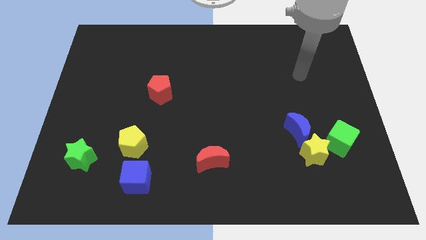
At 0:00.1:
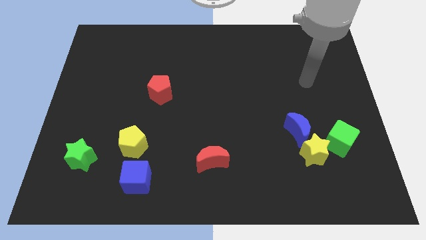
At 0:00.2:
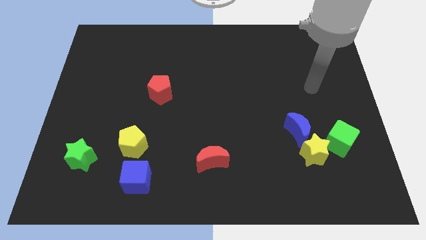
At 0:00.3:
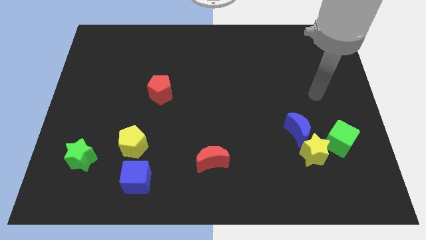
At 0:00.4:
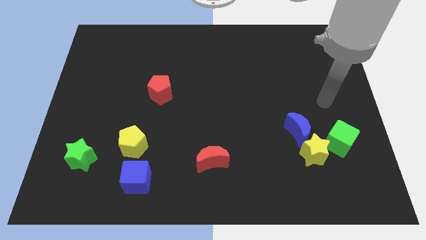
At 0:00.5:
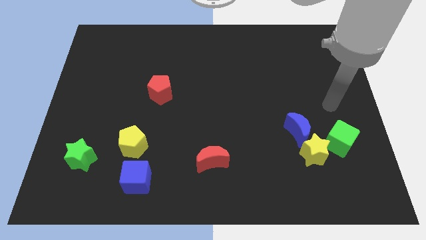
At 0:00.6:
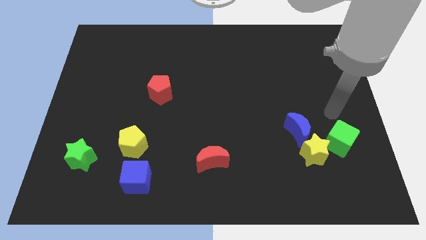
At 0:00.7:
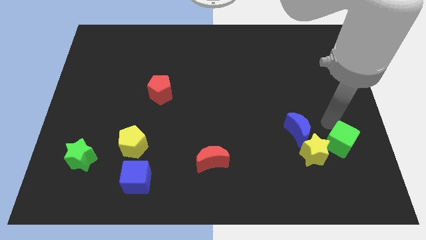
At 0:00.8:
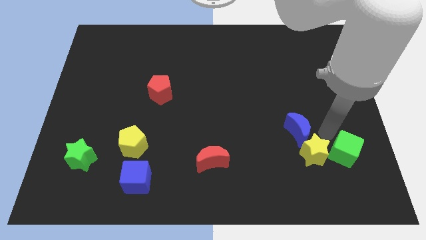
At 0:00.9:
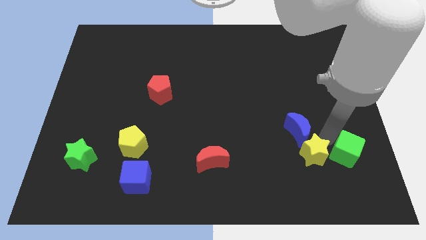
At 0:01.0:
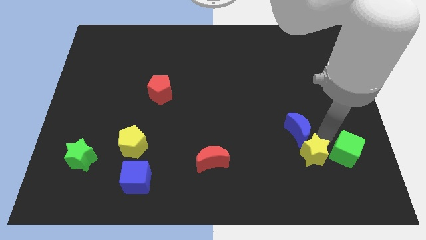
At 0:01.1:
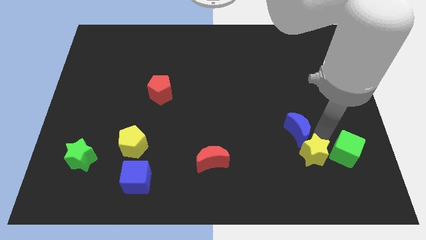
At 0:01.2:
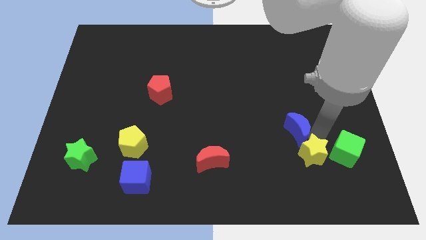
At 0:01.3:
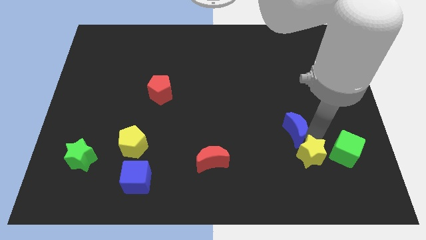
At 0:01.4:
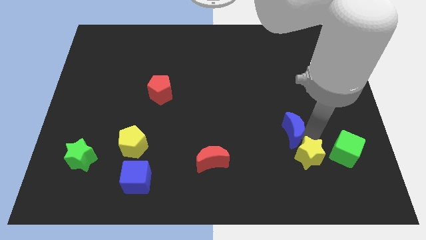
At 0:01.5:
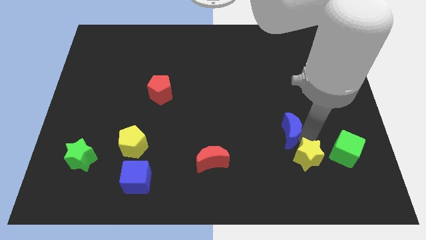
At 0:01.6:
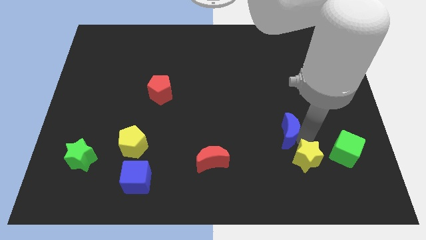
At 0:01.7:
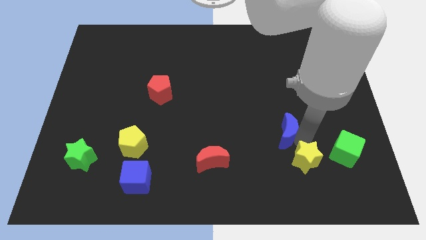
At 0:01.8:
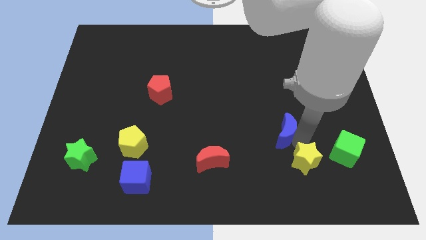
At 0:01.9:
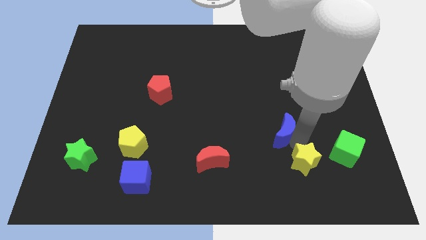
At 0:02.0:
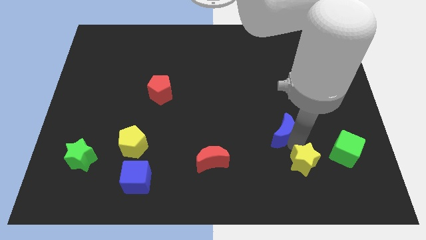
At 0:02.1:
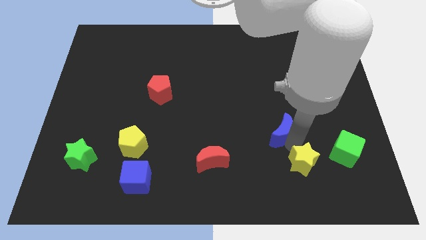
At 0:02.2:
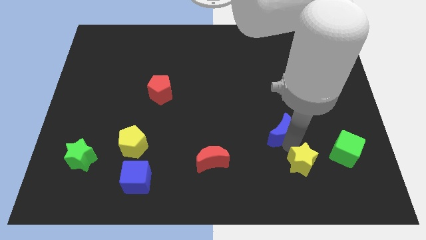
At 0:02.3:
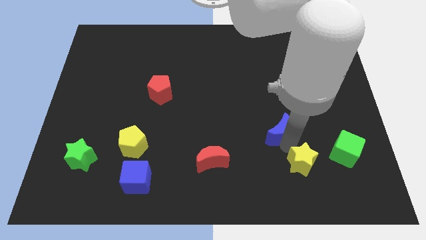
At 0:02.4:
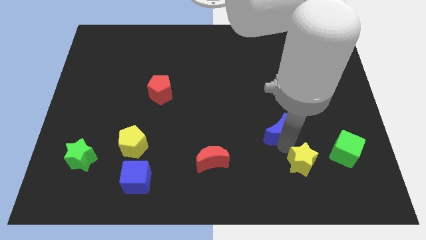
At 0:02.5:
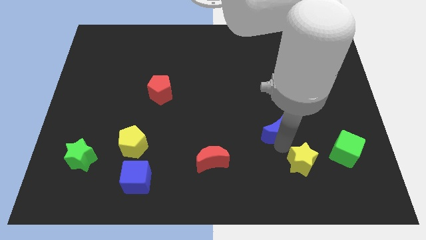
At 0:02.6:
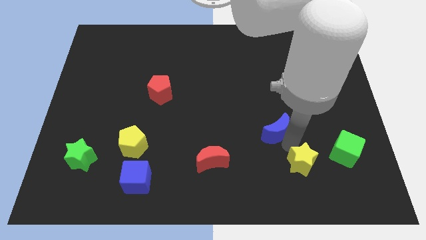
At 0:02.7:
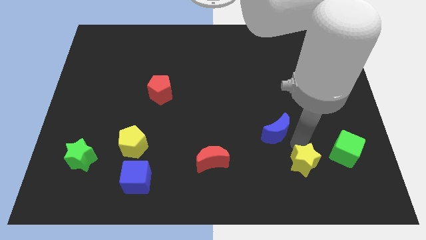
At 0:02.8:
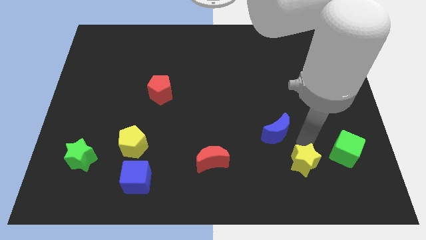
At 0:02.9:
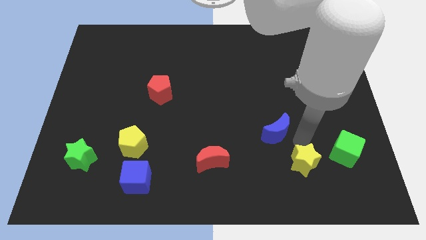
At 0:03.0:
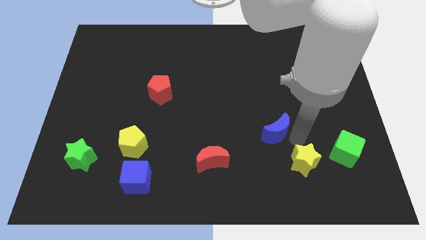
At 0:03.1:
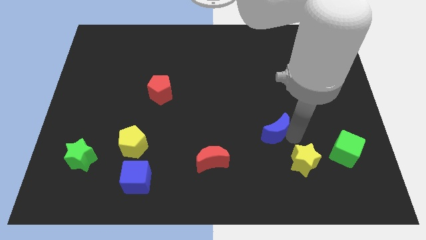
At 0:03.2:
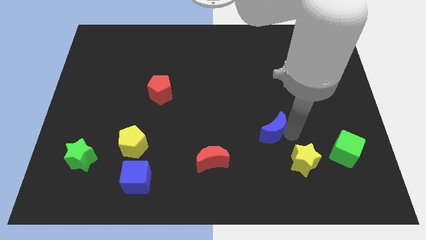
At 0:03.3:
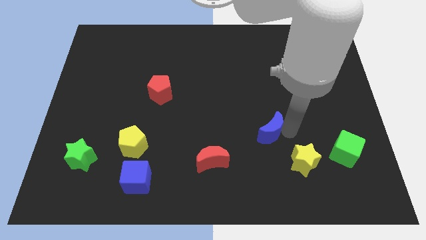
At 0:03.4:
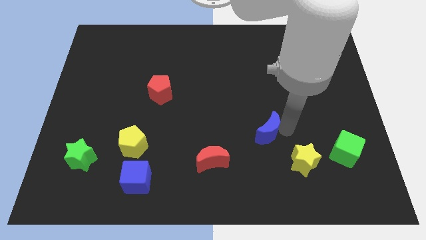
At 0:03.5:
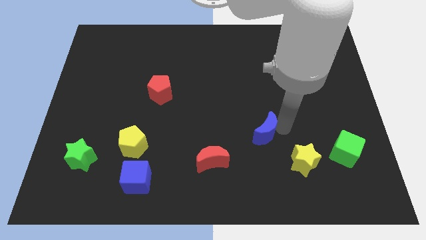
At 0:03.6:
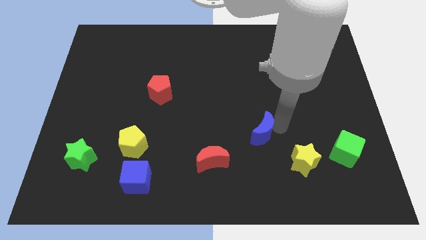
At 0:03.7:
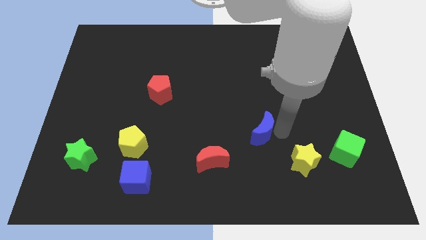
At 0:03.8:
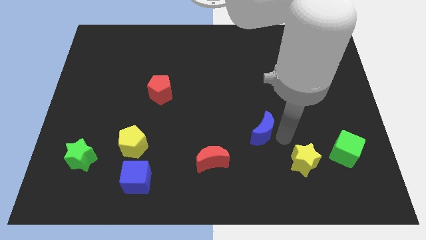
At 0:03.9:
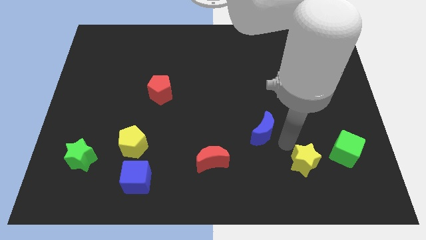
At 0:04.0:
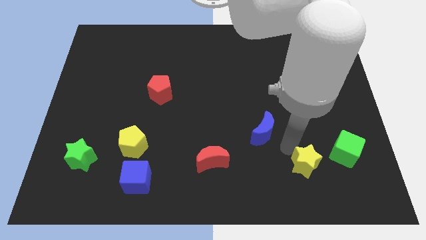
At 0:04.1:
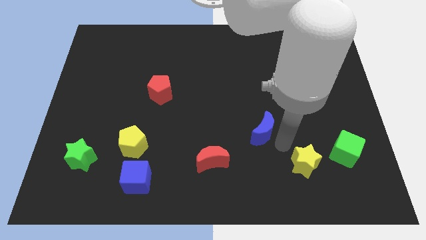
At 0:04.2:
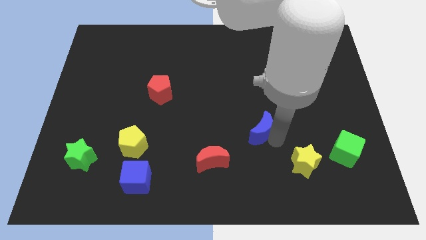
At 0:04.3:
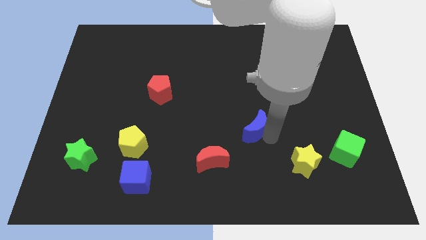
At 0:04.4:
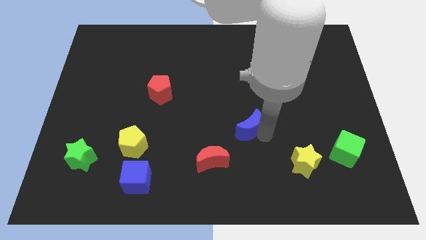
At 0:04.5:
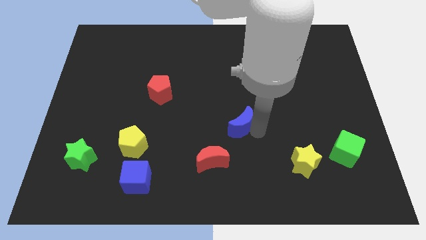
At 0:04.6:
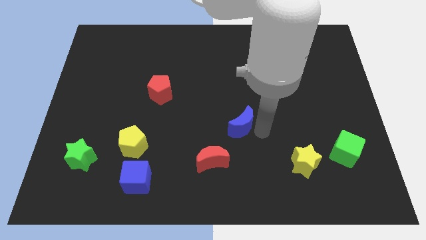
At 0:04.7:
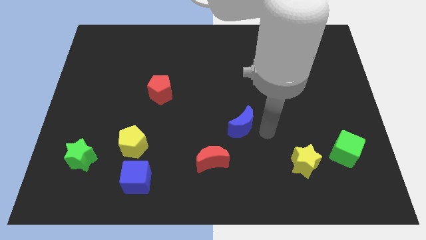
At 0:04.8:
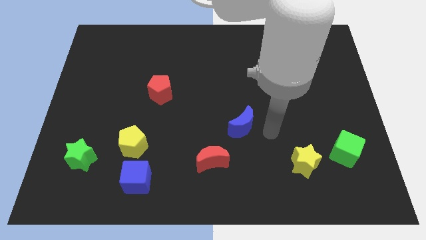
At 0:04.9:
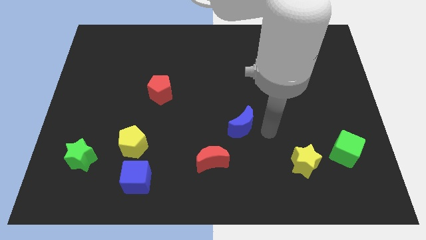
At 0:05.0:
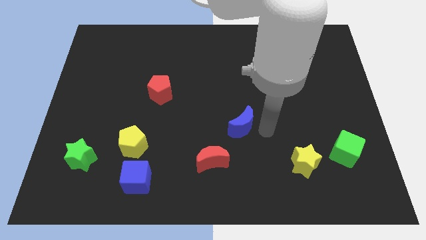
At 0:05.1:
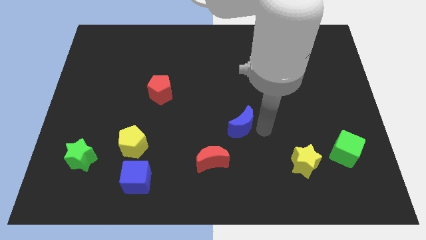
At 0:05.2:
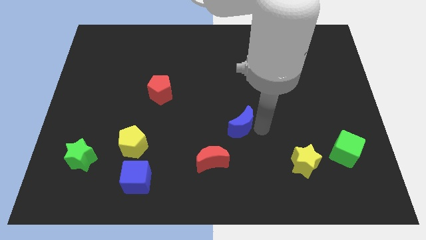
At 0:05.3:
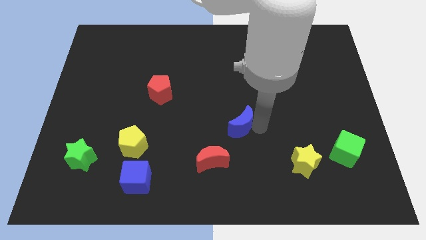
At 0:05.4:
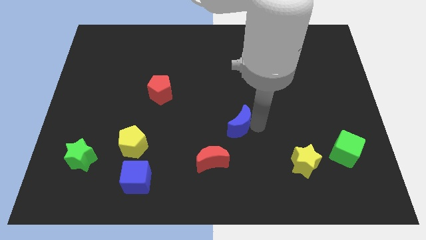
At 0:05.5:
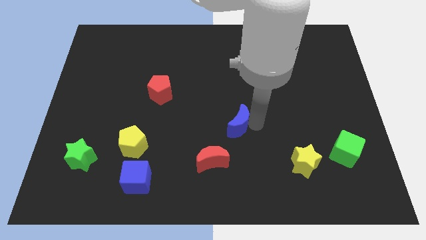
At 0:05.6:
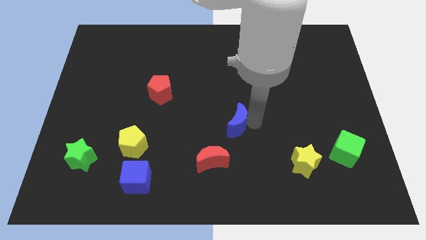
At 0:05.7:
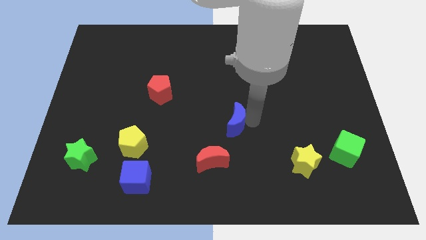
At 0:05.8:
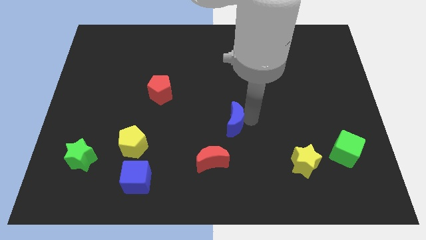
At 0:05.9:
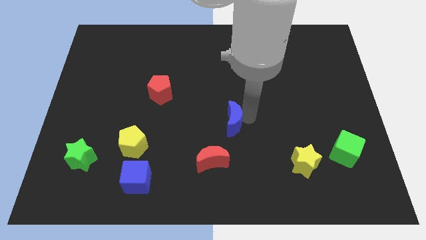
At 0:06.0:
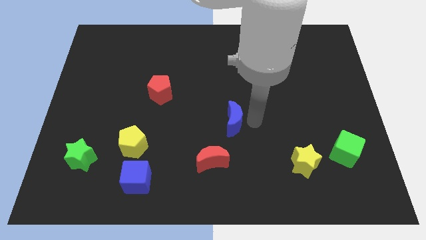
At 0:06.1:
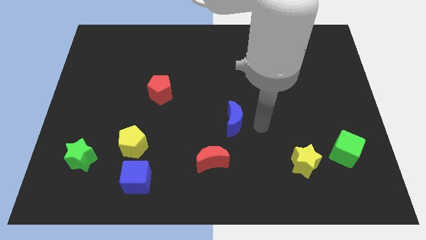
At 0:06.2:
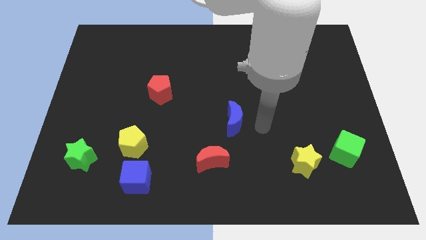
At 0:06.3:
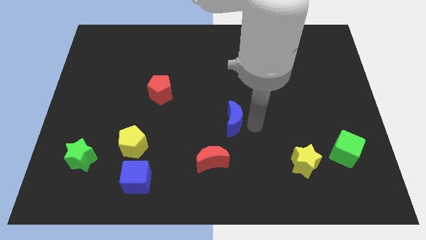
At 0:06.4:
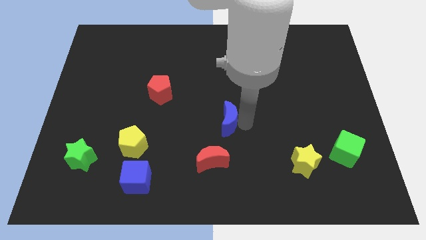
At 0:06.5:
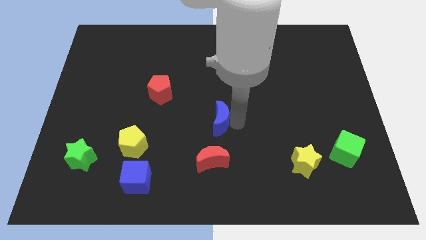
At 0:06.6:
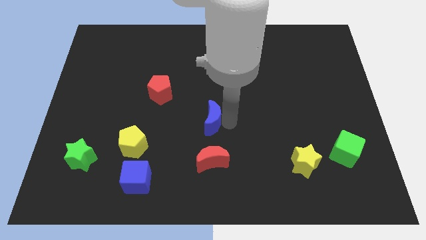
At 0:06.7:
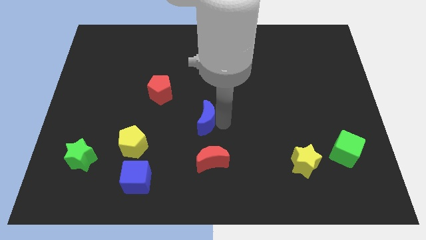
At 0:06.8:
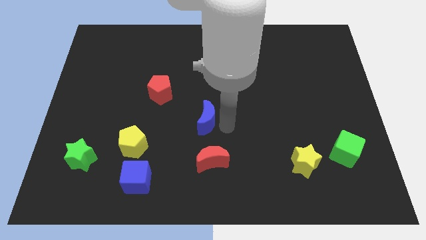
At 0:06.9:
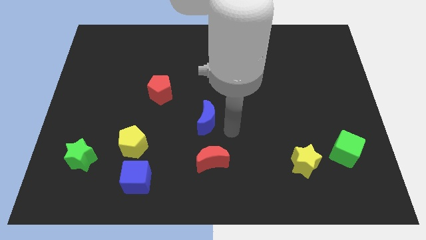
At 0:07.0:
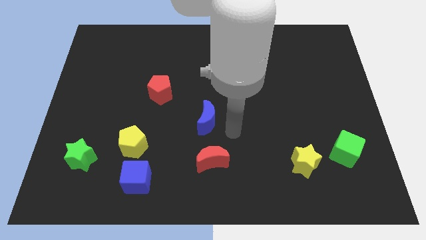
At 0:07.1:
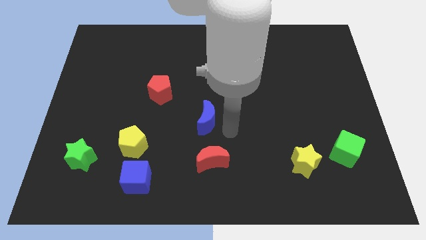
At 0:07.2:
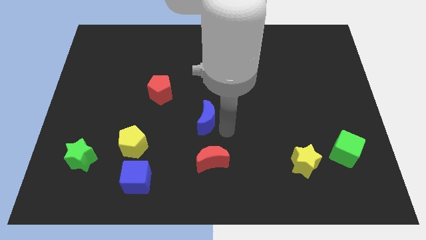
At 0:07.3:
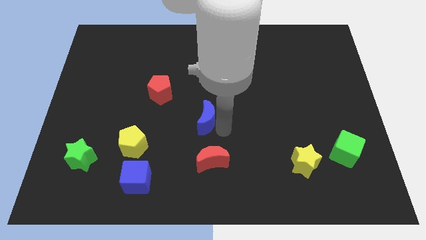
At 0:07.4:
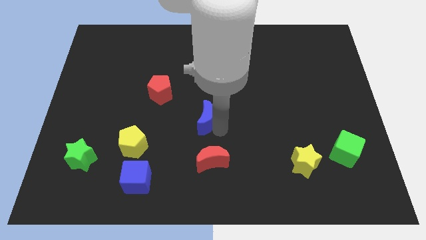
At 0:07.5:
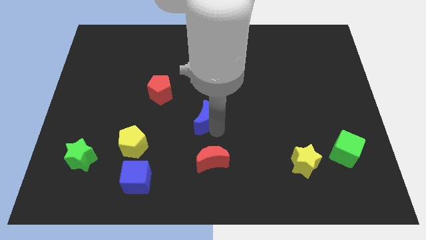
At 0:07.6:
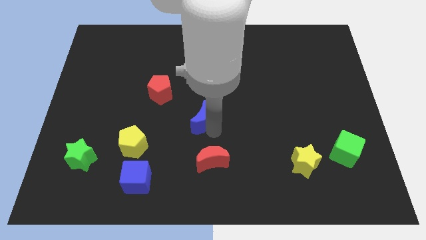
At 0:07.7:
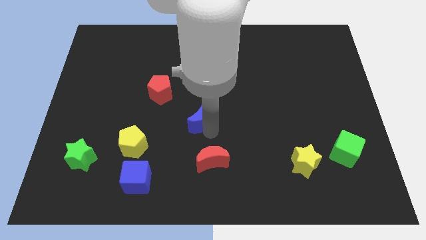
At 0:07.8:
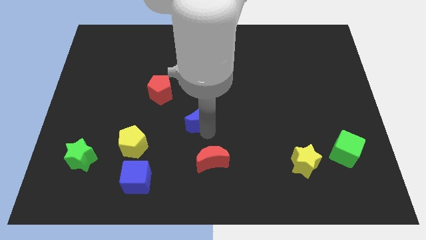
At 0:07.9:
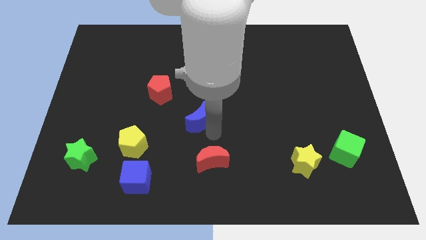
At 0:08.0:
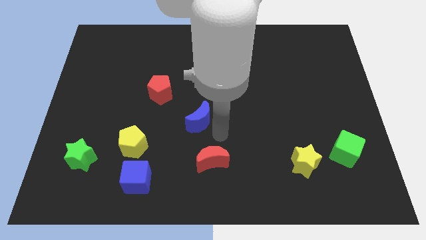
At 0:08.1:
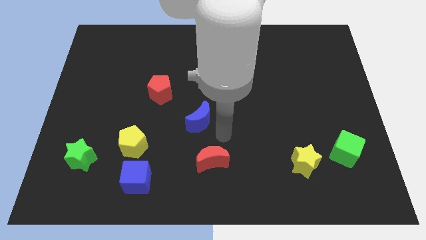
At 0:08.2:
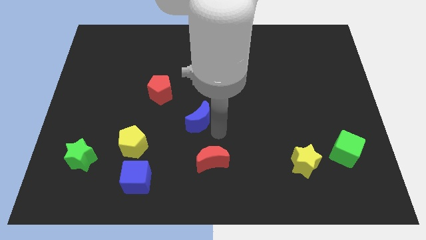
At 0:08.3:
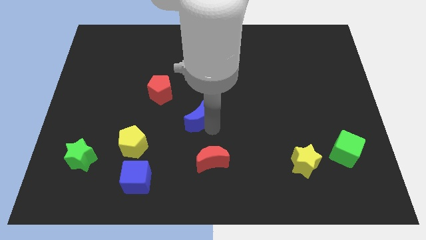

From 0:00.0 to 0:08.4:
put the blue moon to the bottom right of the red pentagon
